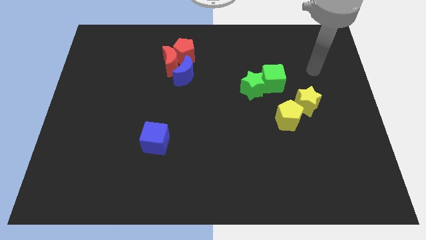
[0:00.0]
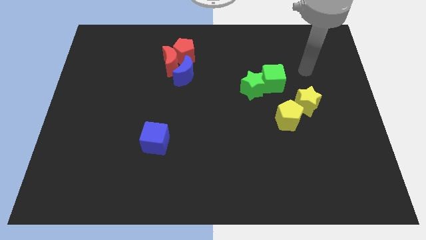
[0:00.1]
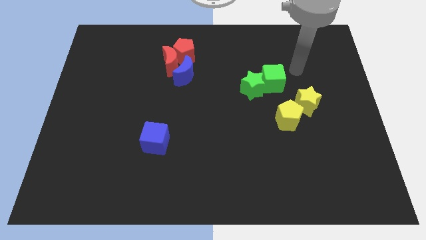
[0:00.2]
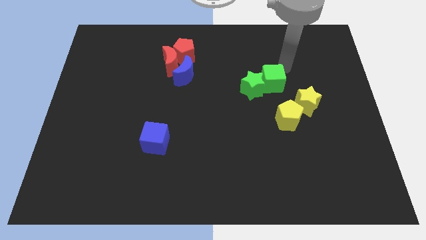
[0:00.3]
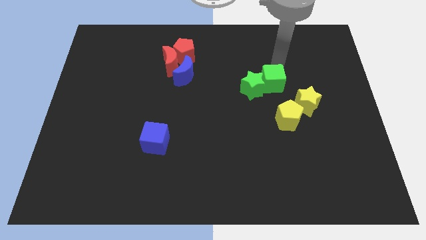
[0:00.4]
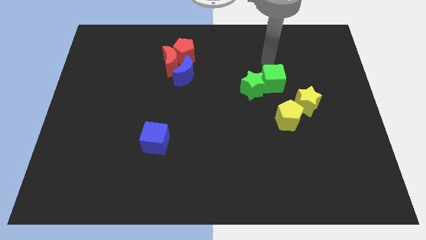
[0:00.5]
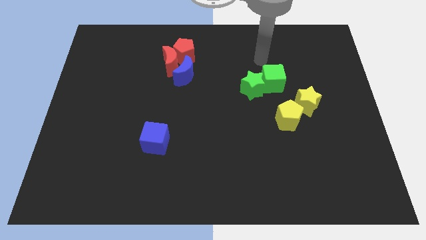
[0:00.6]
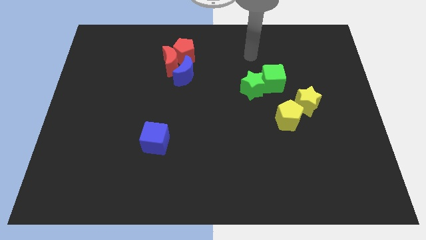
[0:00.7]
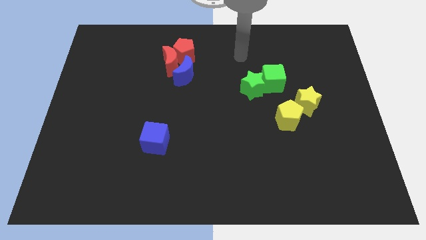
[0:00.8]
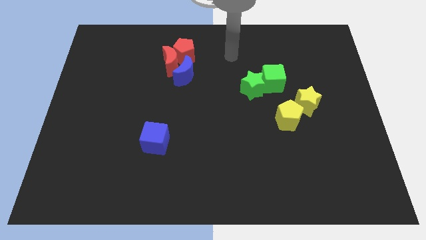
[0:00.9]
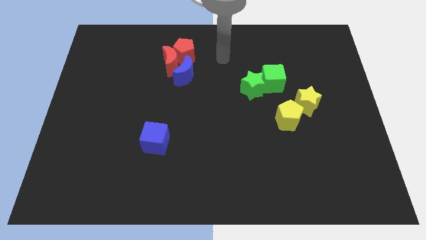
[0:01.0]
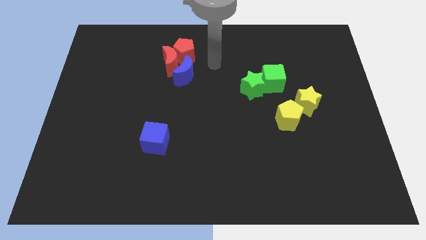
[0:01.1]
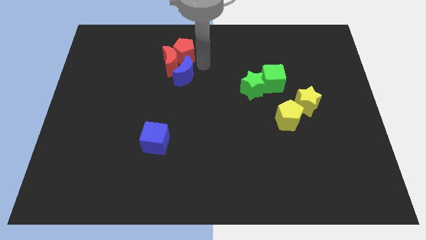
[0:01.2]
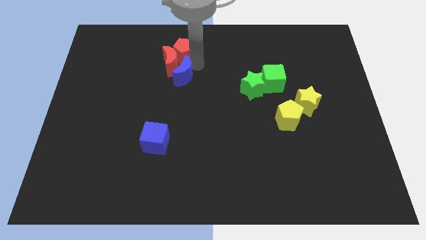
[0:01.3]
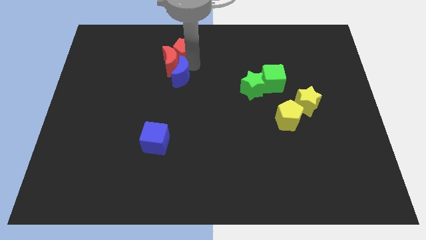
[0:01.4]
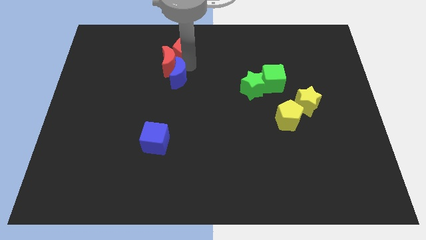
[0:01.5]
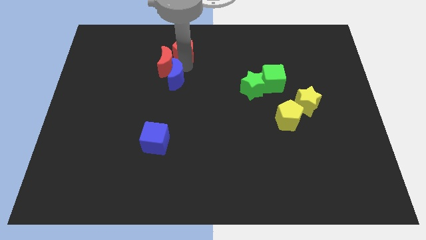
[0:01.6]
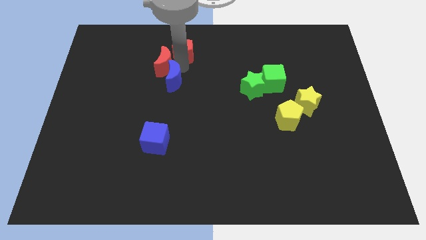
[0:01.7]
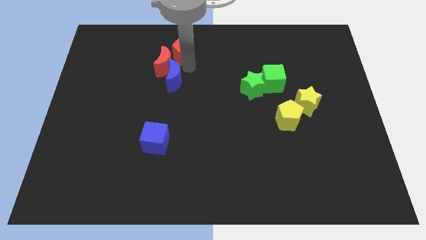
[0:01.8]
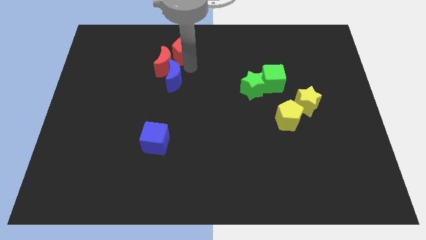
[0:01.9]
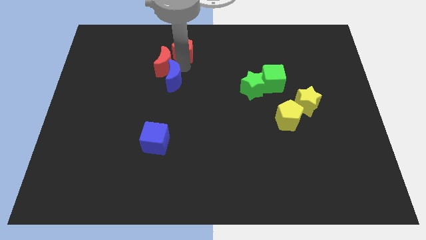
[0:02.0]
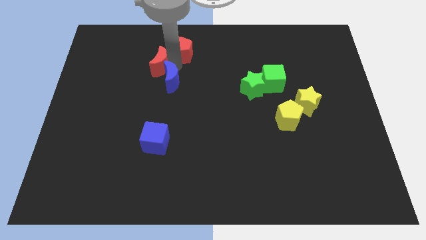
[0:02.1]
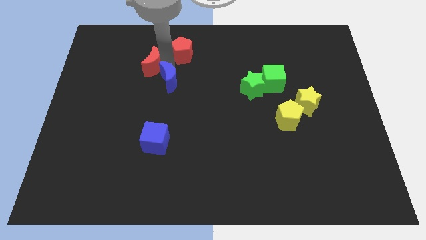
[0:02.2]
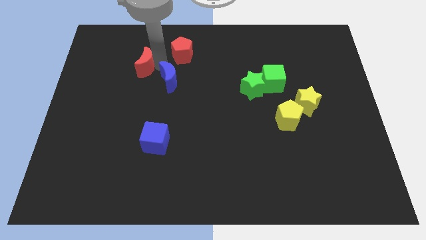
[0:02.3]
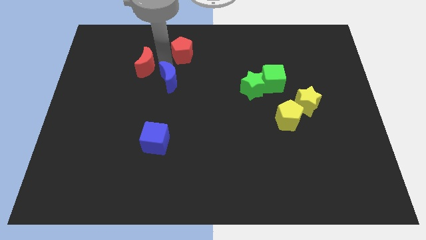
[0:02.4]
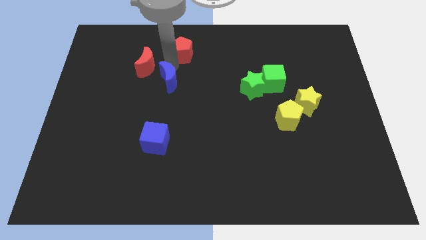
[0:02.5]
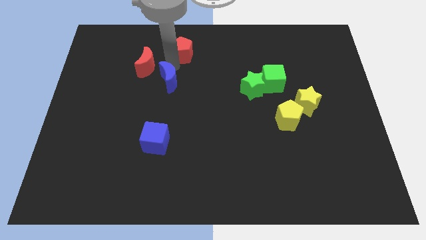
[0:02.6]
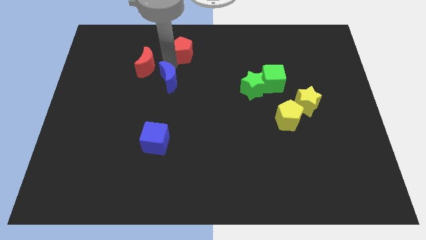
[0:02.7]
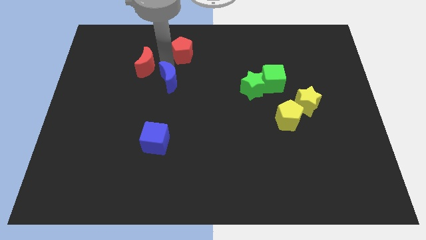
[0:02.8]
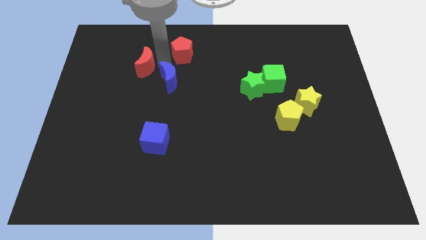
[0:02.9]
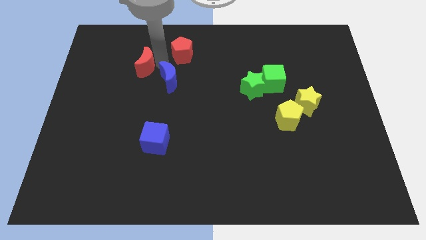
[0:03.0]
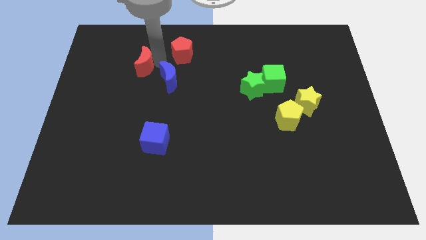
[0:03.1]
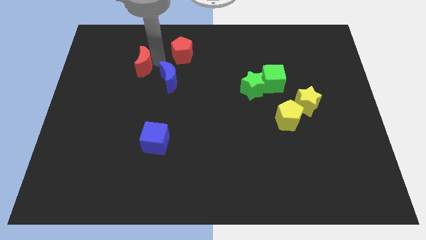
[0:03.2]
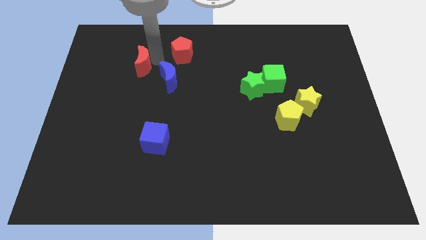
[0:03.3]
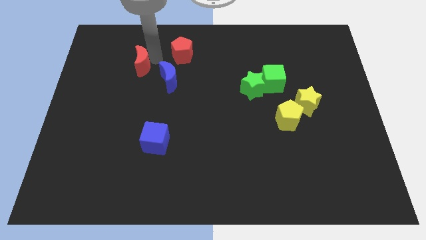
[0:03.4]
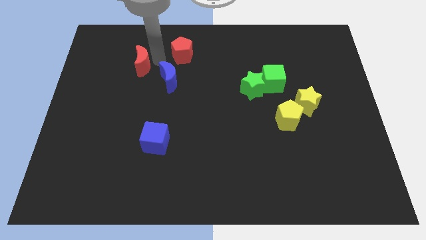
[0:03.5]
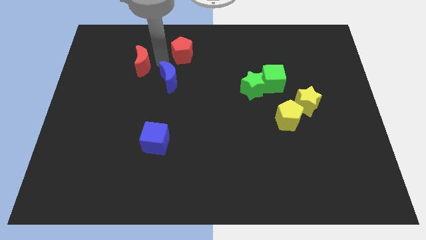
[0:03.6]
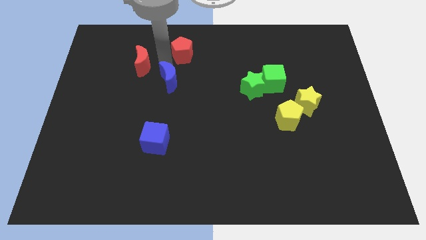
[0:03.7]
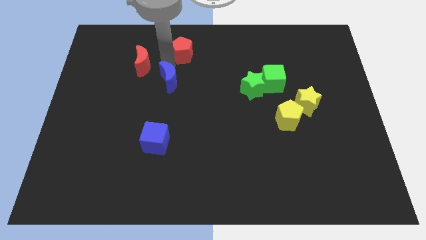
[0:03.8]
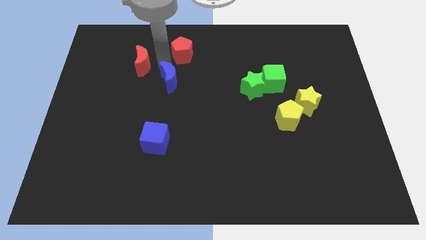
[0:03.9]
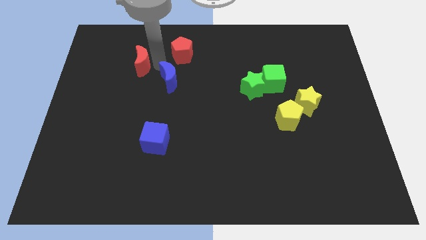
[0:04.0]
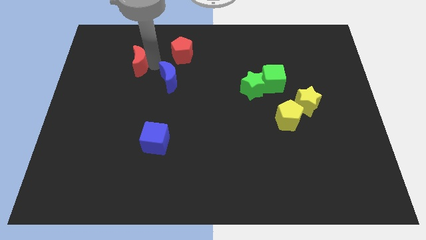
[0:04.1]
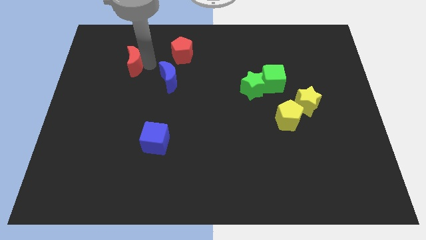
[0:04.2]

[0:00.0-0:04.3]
pull the red moon apart from the red pentagon and blue moon

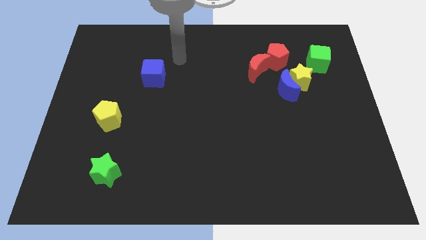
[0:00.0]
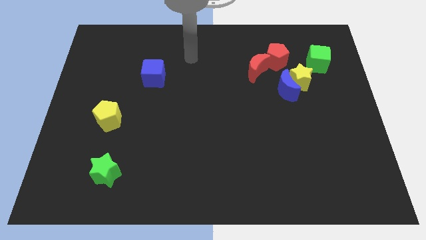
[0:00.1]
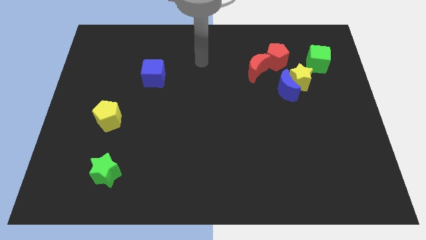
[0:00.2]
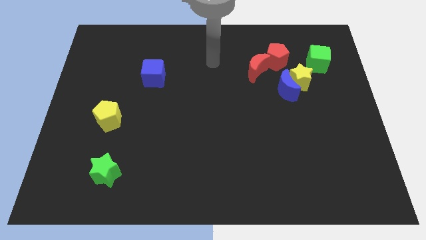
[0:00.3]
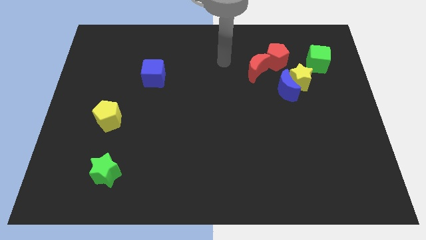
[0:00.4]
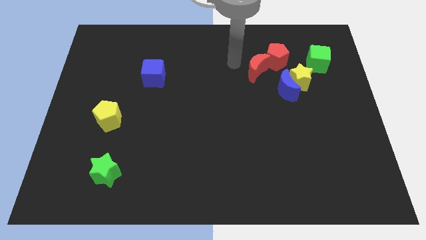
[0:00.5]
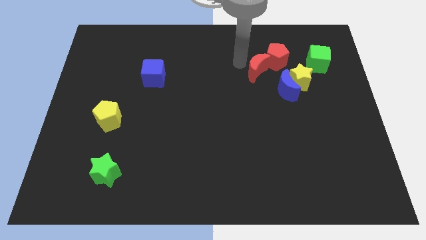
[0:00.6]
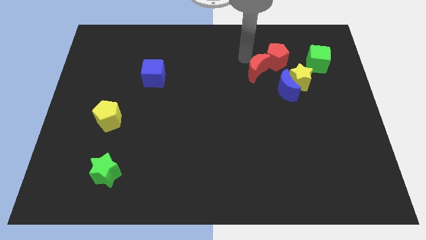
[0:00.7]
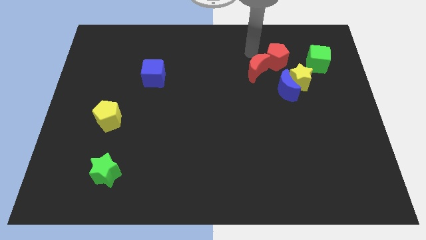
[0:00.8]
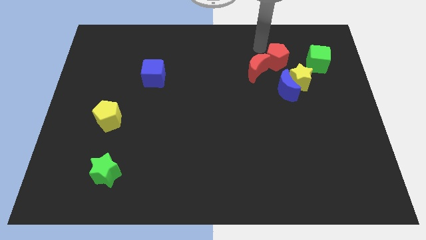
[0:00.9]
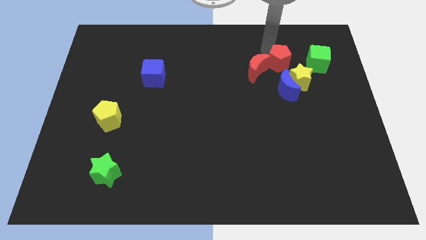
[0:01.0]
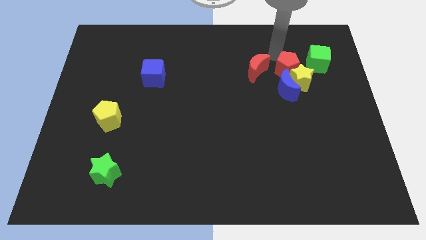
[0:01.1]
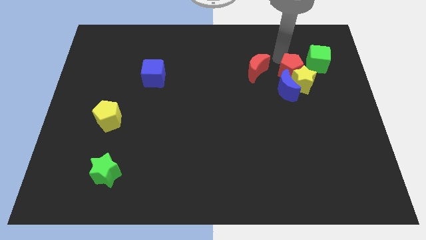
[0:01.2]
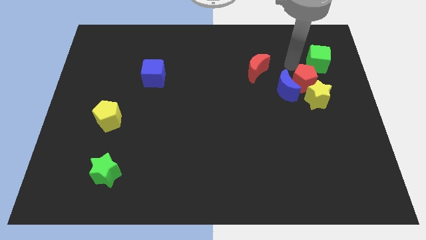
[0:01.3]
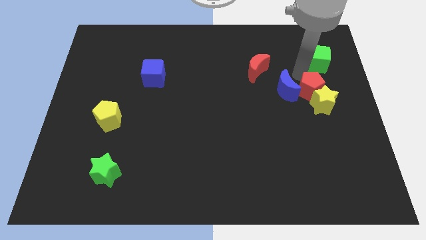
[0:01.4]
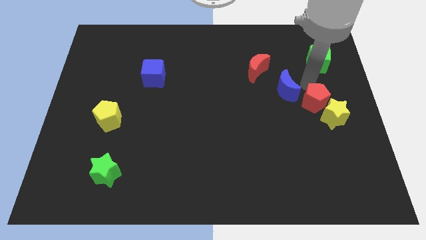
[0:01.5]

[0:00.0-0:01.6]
move the yellow star away from the clump

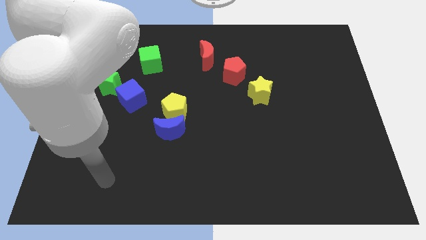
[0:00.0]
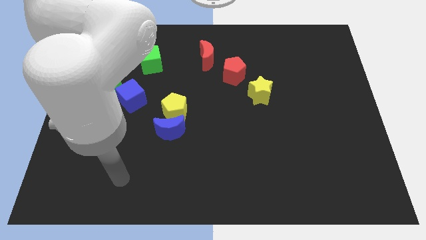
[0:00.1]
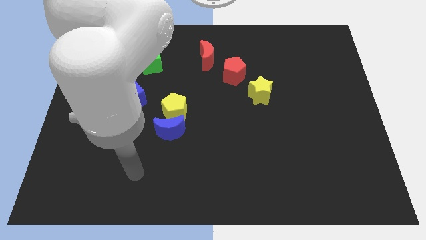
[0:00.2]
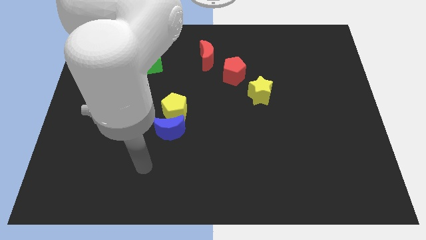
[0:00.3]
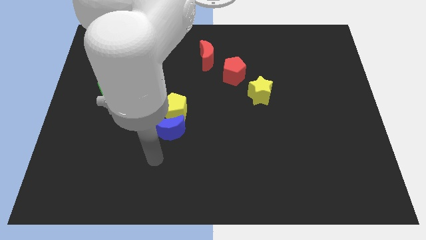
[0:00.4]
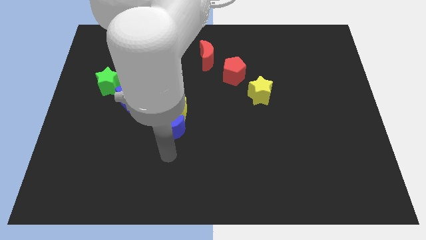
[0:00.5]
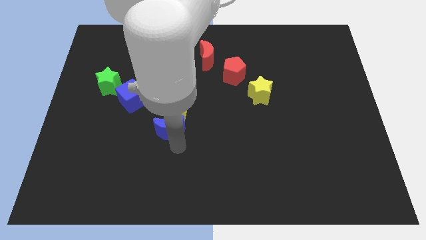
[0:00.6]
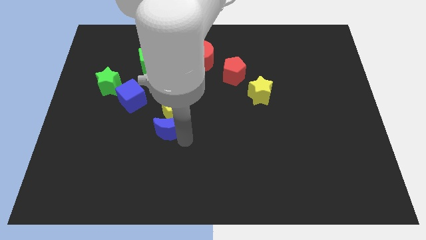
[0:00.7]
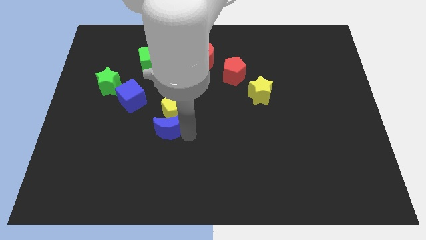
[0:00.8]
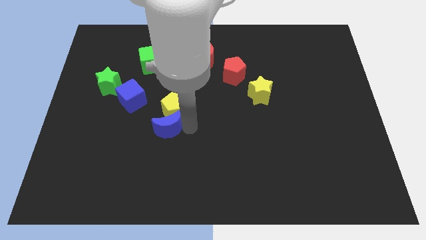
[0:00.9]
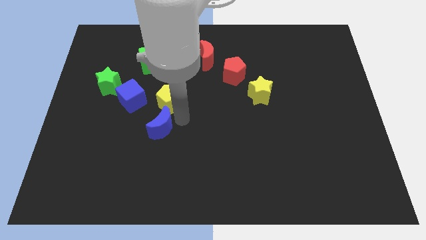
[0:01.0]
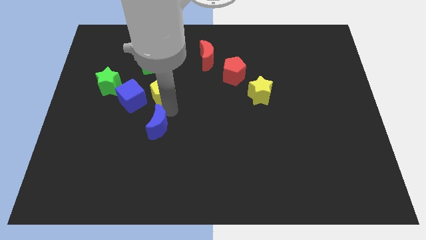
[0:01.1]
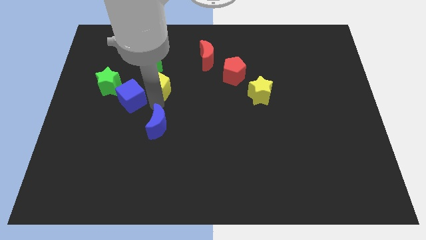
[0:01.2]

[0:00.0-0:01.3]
separate the blue moon from the yellow pentagon

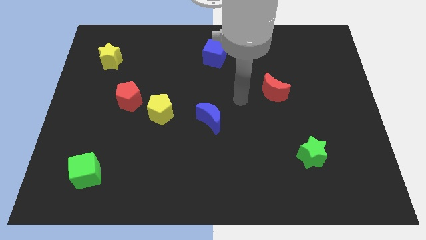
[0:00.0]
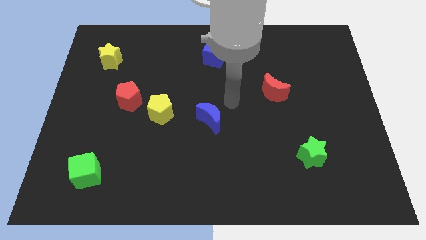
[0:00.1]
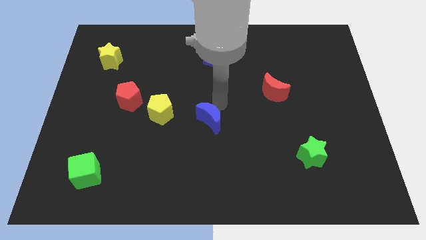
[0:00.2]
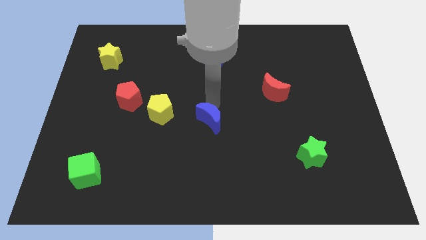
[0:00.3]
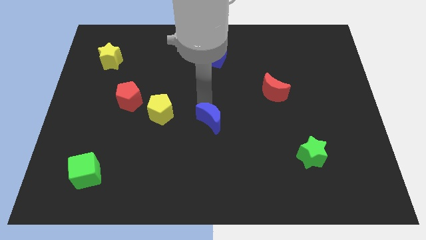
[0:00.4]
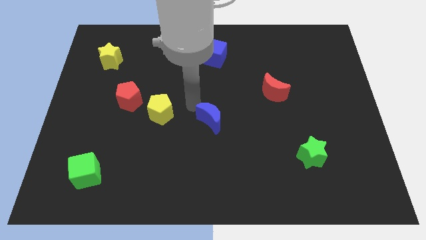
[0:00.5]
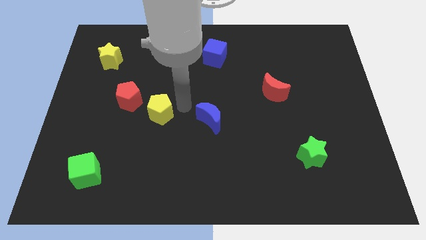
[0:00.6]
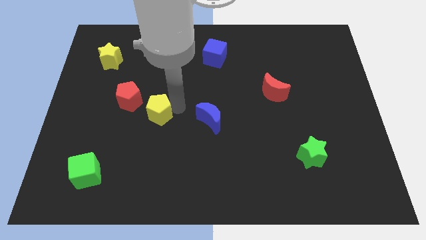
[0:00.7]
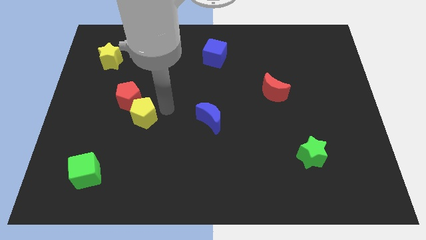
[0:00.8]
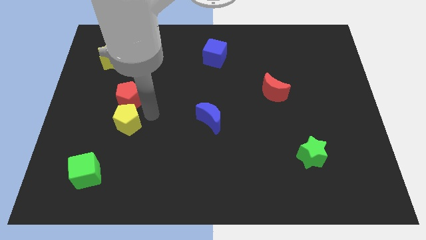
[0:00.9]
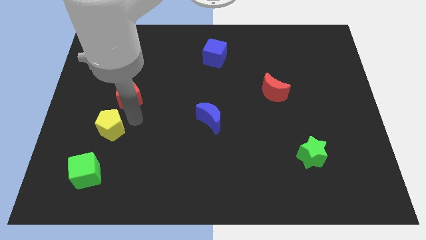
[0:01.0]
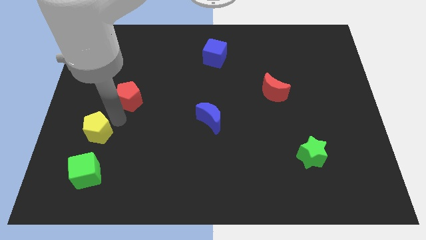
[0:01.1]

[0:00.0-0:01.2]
pull the red pentagon apart from the yellow pentagon

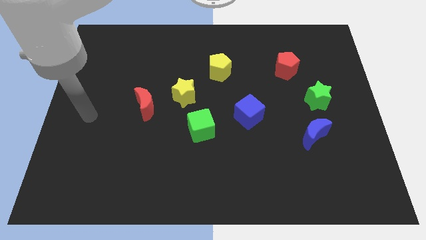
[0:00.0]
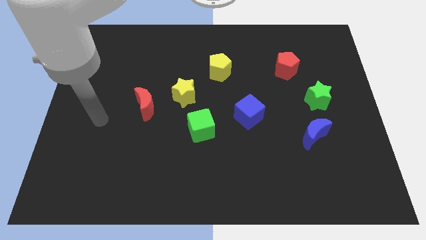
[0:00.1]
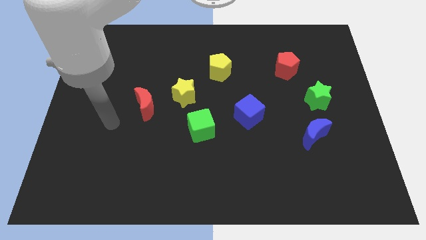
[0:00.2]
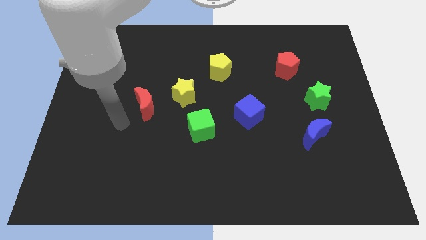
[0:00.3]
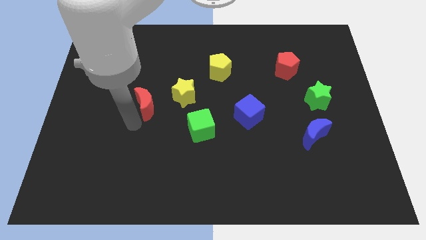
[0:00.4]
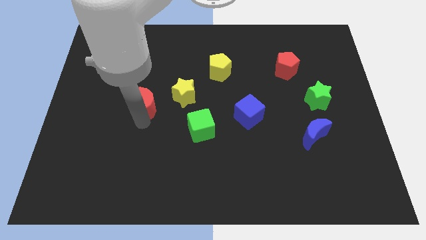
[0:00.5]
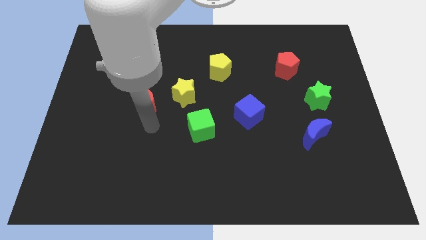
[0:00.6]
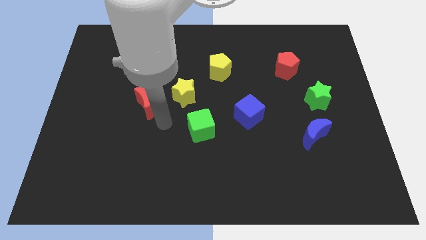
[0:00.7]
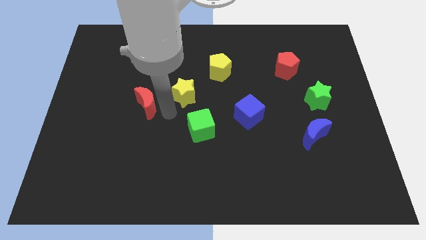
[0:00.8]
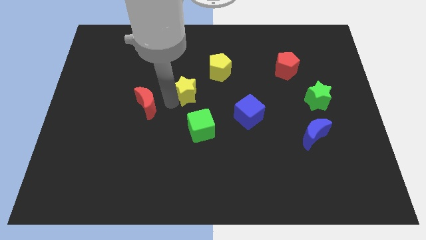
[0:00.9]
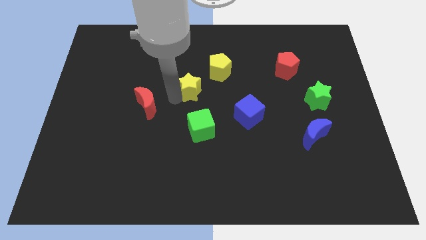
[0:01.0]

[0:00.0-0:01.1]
separate the red moon from the yellow star
